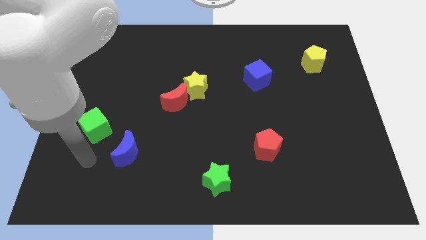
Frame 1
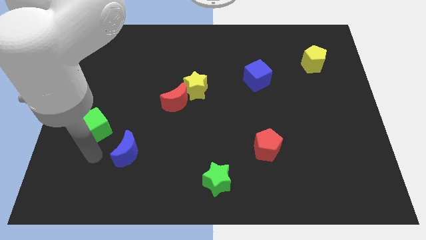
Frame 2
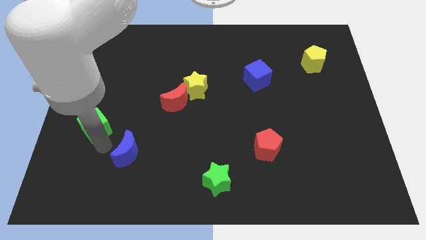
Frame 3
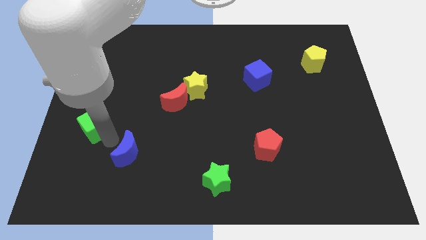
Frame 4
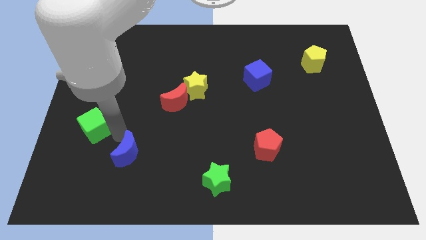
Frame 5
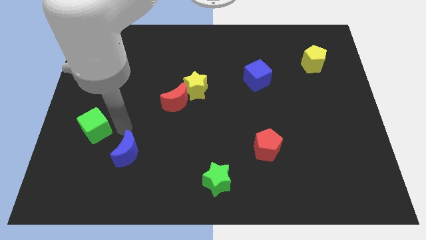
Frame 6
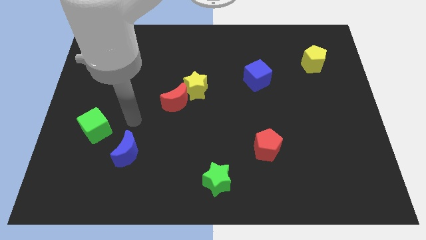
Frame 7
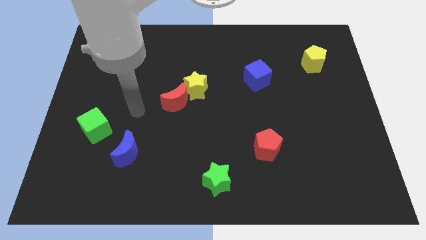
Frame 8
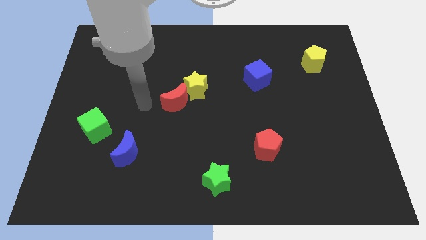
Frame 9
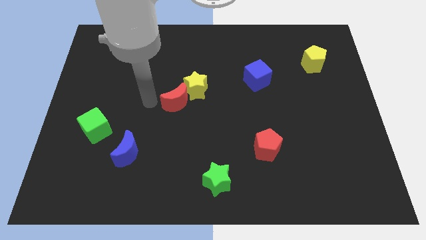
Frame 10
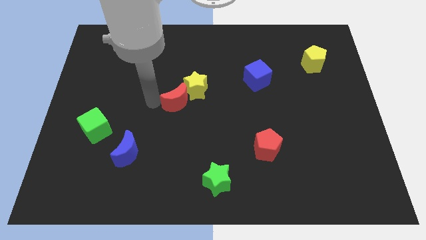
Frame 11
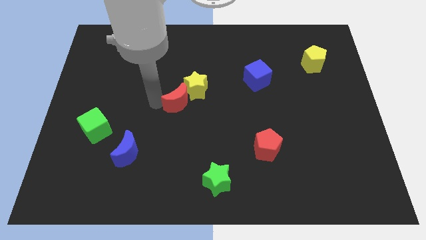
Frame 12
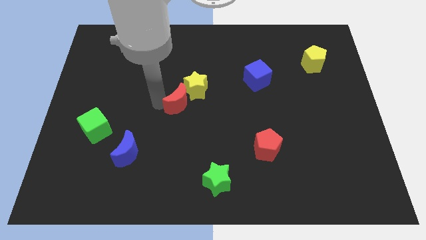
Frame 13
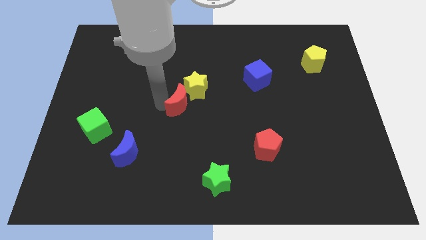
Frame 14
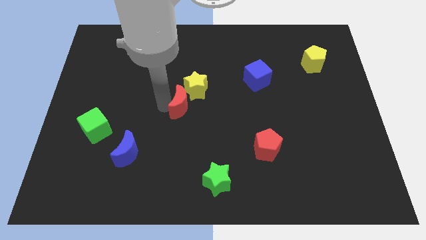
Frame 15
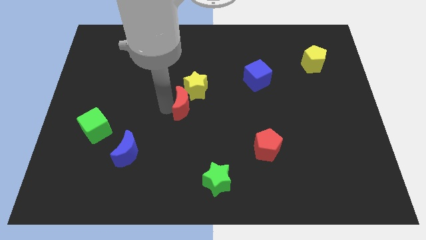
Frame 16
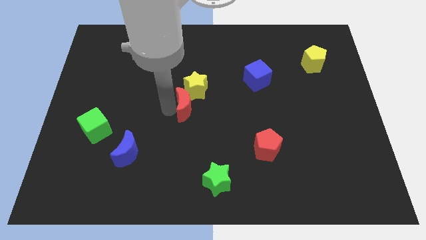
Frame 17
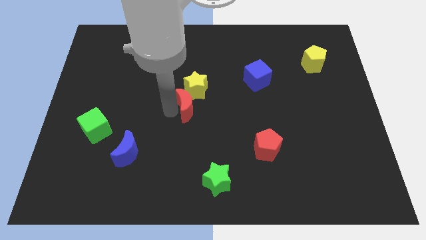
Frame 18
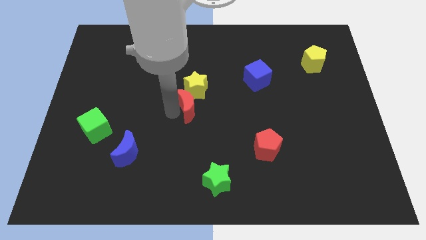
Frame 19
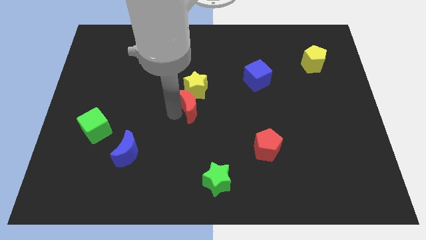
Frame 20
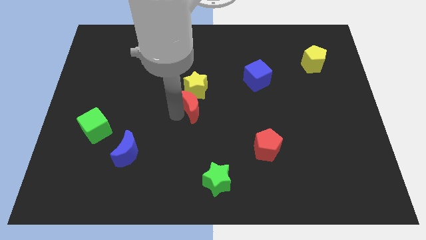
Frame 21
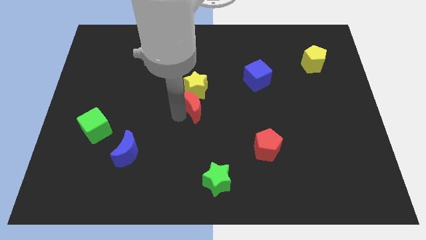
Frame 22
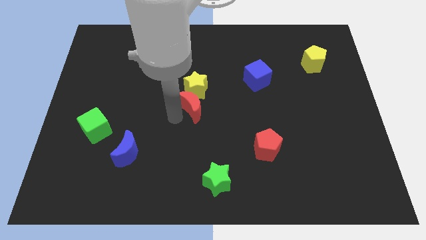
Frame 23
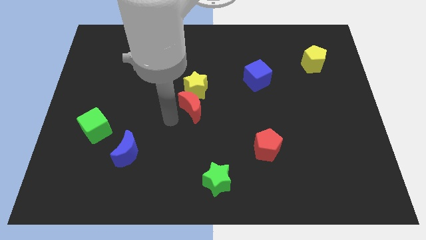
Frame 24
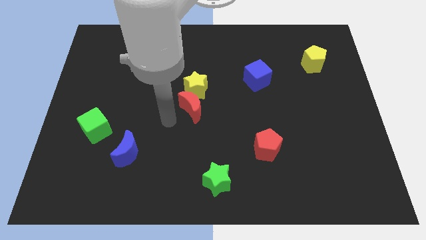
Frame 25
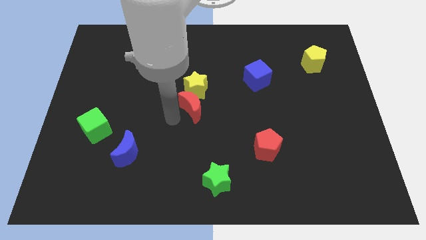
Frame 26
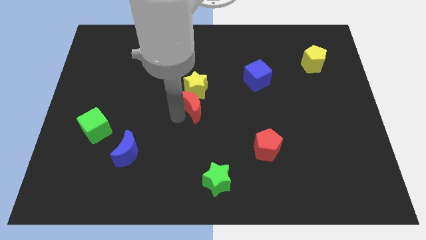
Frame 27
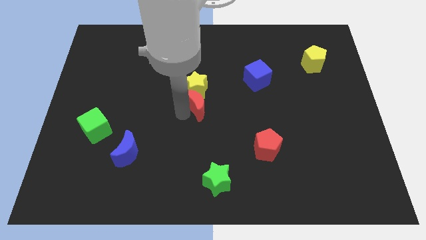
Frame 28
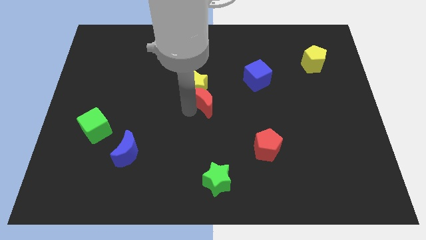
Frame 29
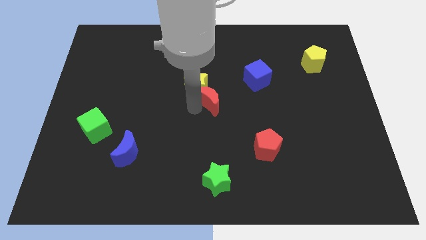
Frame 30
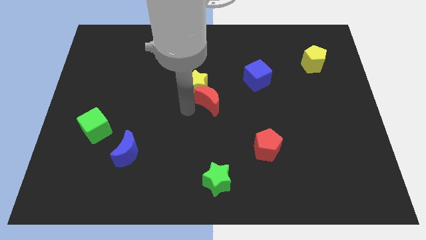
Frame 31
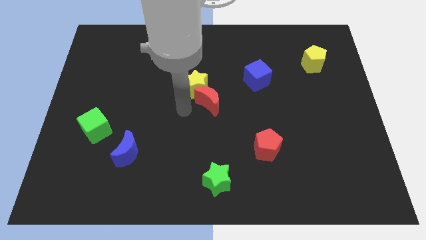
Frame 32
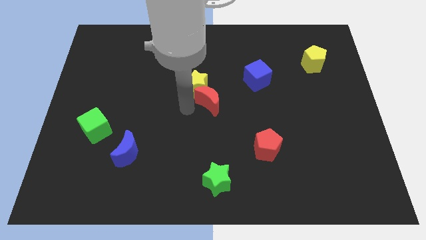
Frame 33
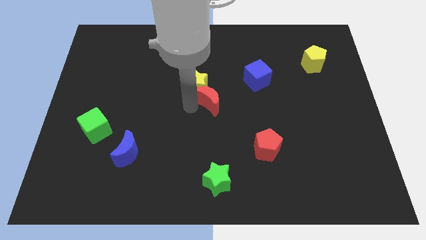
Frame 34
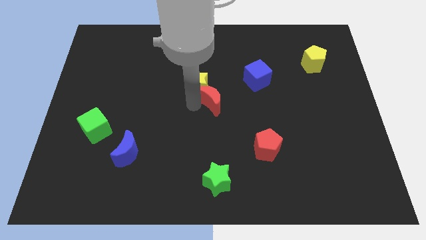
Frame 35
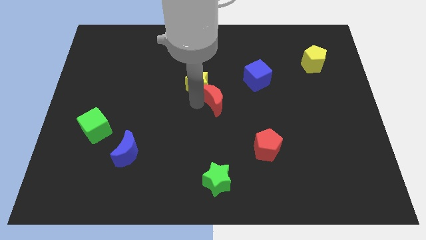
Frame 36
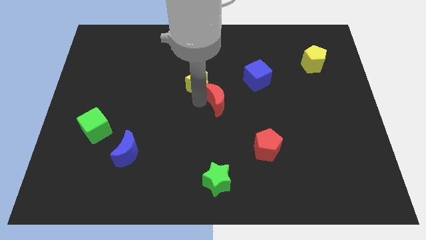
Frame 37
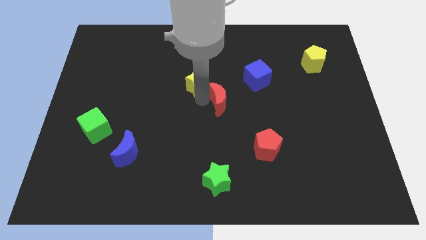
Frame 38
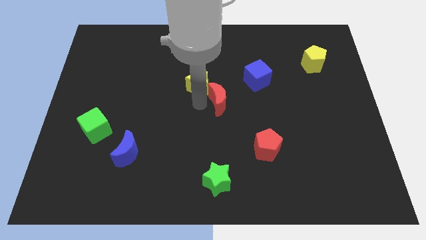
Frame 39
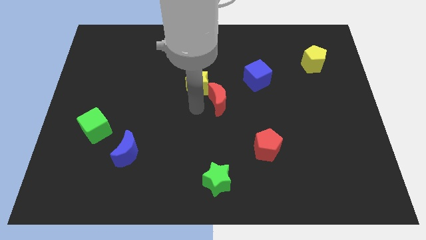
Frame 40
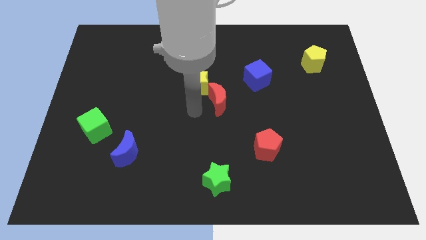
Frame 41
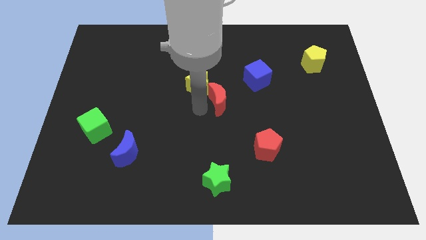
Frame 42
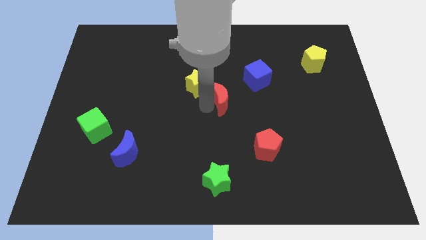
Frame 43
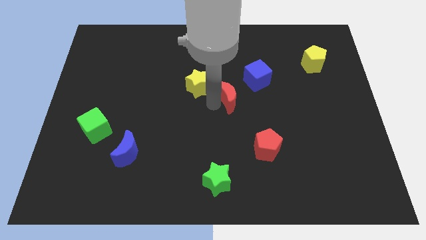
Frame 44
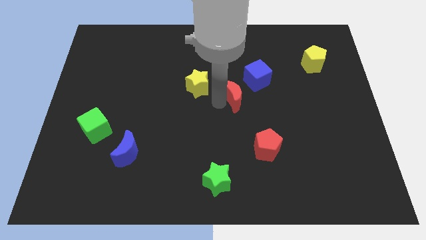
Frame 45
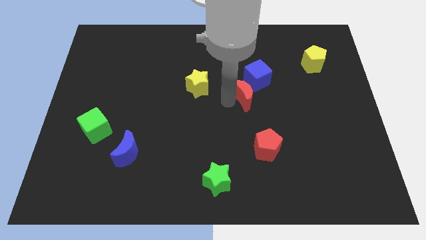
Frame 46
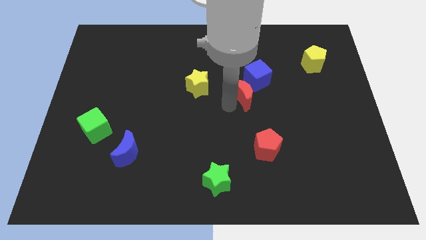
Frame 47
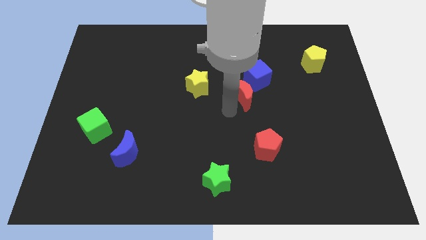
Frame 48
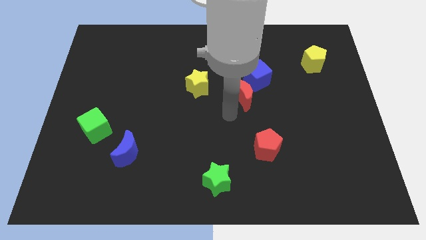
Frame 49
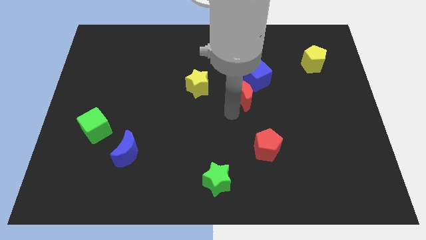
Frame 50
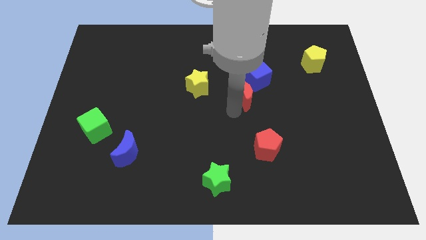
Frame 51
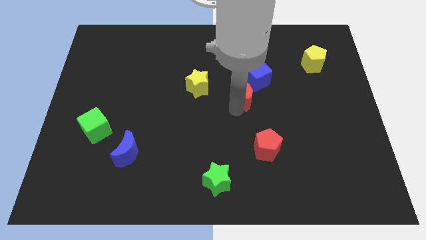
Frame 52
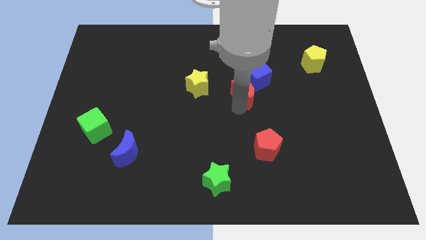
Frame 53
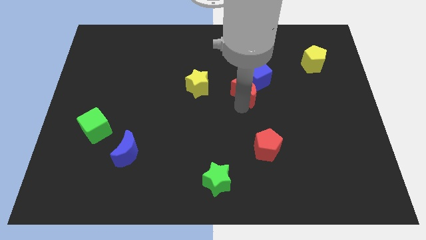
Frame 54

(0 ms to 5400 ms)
slide the red moon towards the blue cube

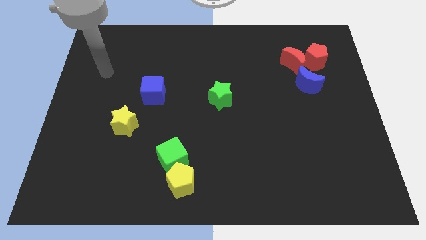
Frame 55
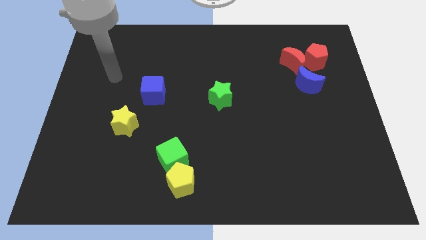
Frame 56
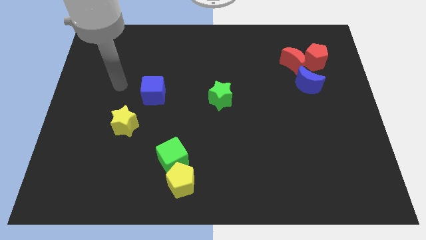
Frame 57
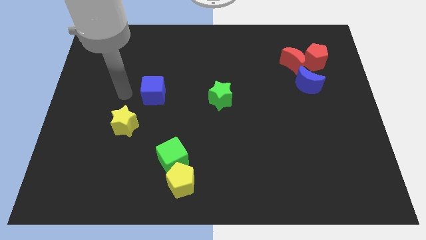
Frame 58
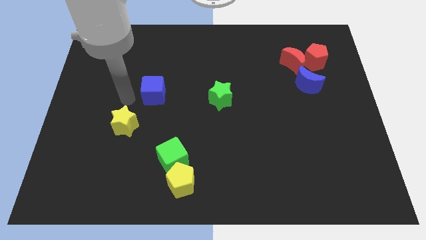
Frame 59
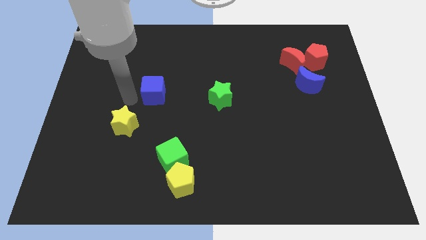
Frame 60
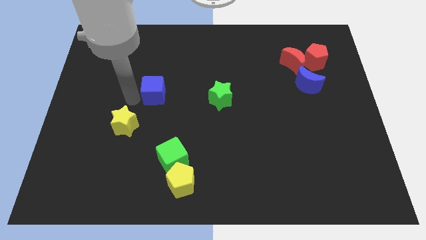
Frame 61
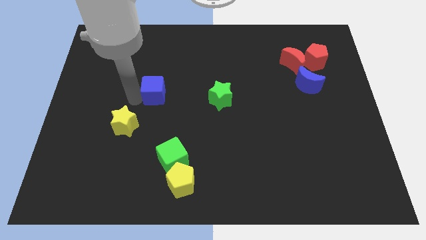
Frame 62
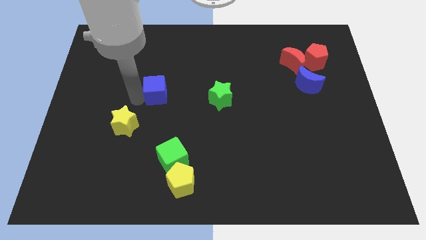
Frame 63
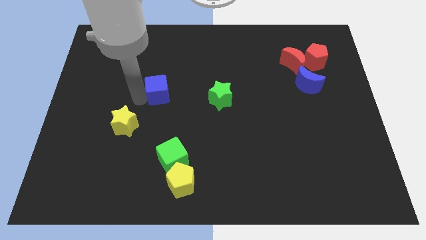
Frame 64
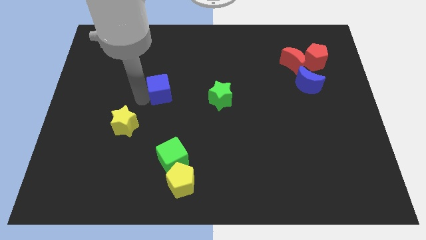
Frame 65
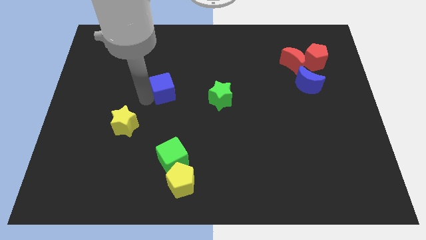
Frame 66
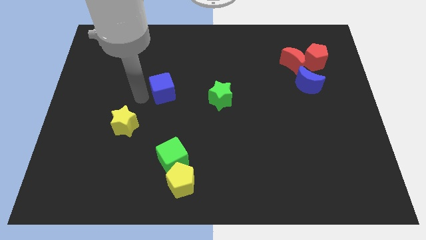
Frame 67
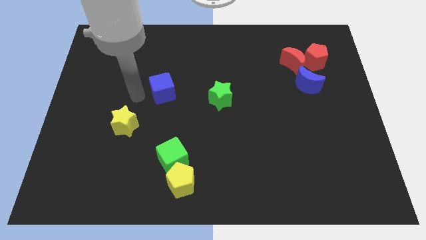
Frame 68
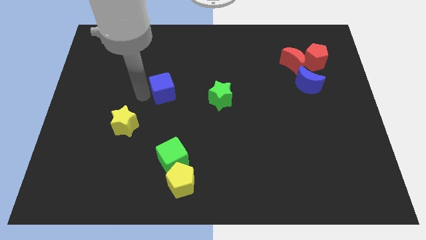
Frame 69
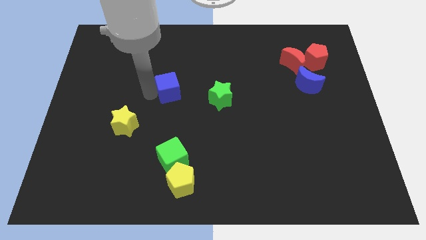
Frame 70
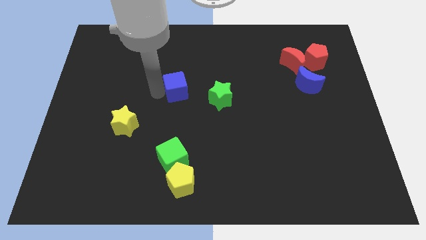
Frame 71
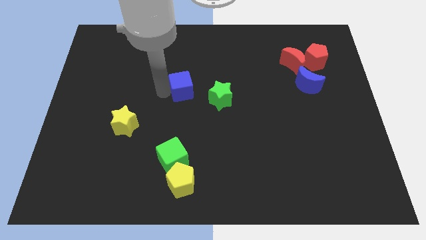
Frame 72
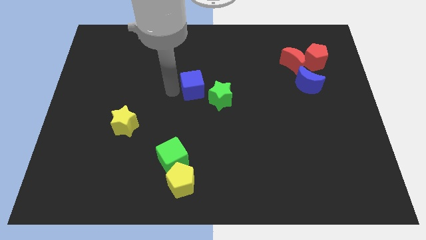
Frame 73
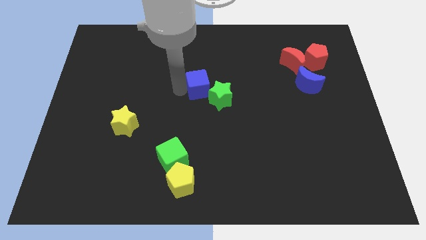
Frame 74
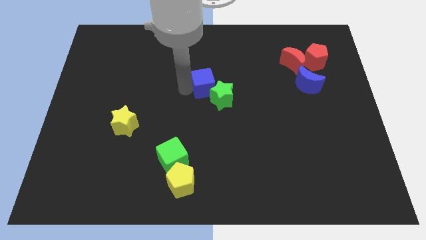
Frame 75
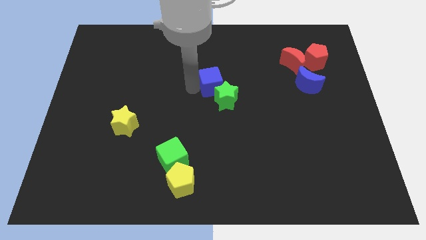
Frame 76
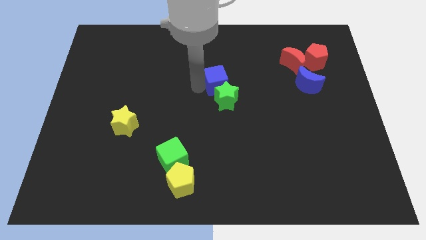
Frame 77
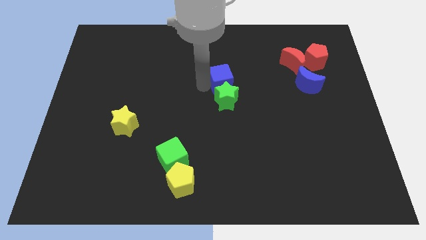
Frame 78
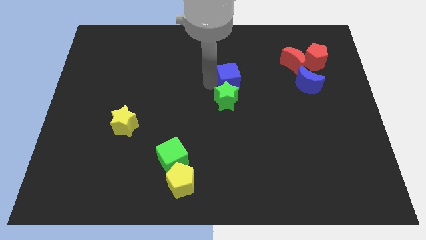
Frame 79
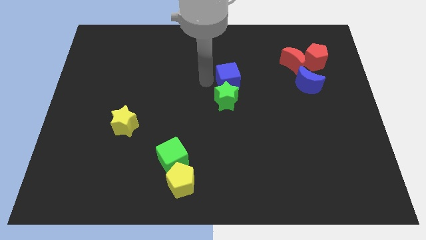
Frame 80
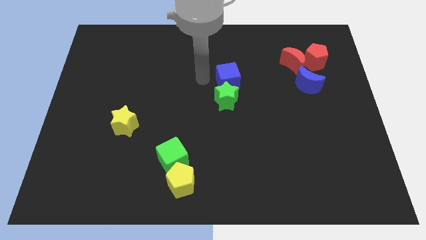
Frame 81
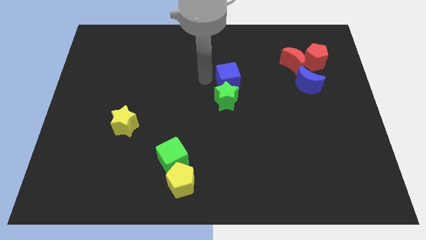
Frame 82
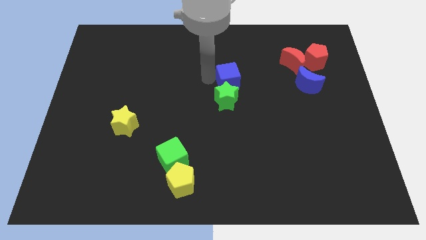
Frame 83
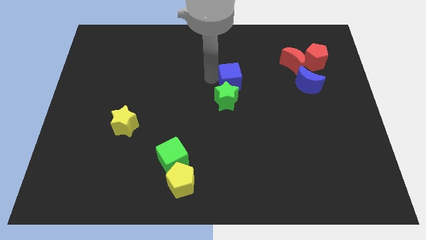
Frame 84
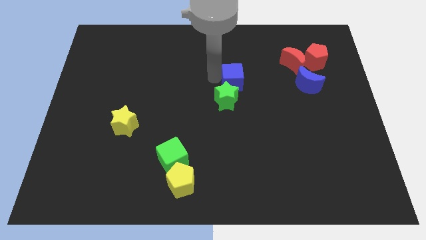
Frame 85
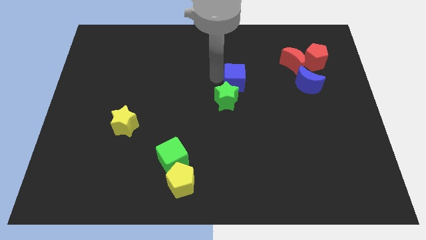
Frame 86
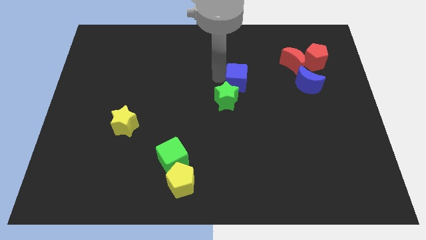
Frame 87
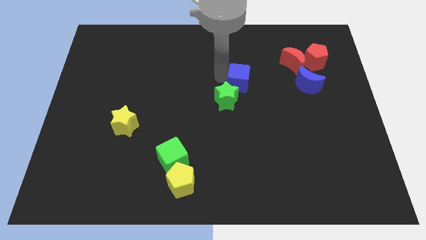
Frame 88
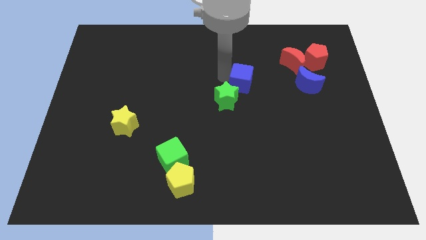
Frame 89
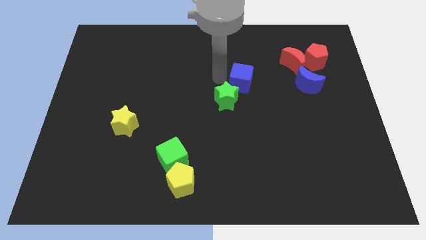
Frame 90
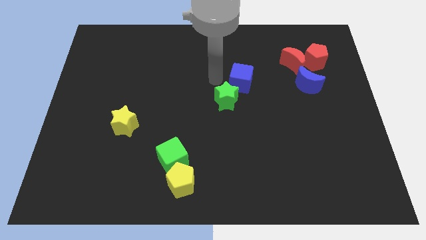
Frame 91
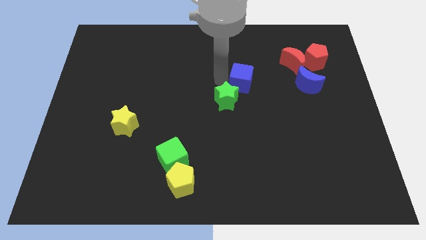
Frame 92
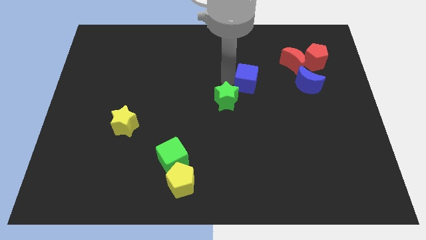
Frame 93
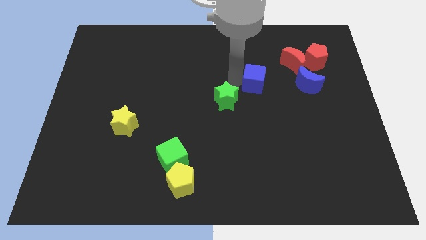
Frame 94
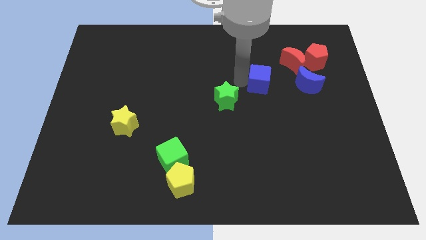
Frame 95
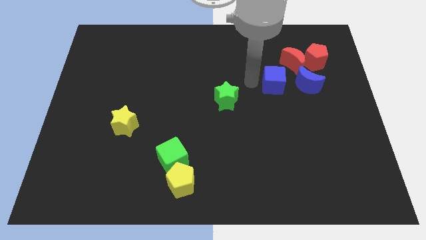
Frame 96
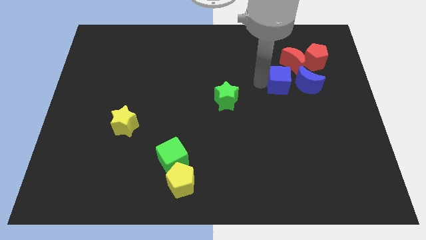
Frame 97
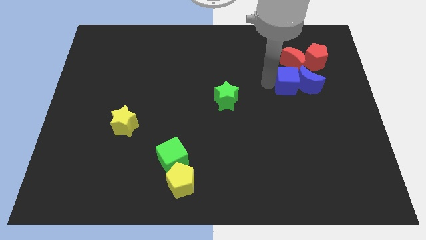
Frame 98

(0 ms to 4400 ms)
slide the blue cube next to the blue moon
